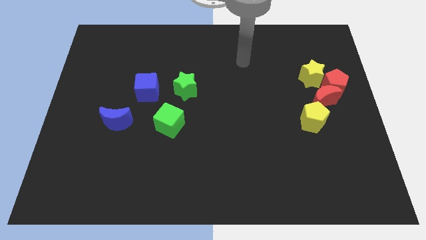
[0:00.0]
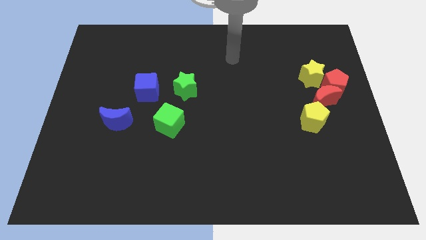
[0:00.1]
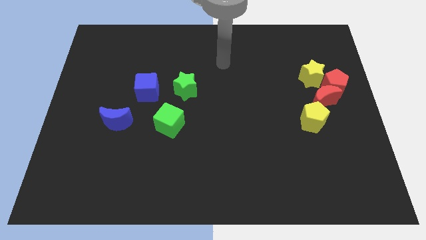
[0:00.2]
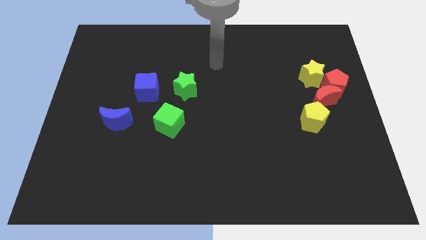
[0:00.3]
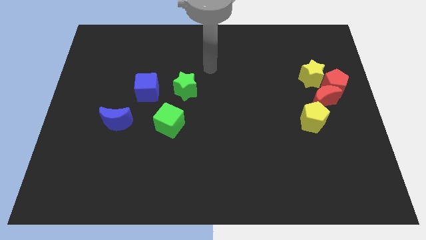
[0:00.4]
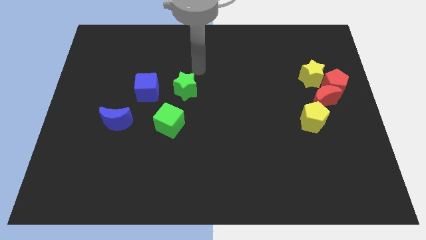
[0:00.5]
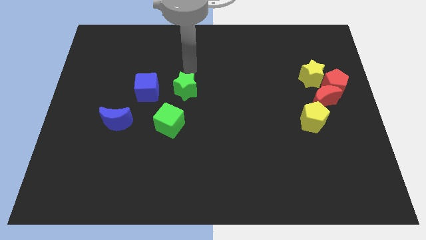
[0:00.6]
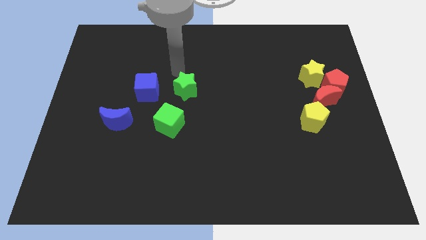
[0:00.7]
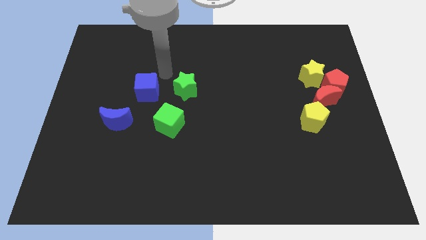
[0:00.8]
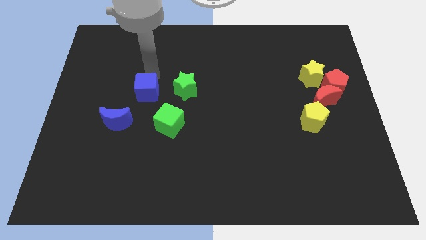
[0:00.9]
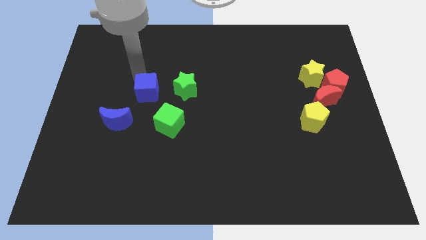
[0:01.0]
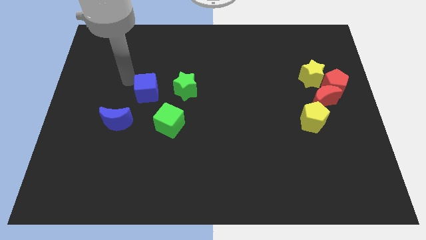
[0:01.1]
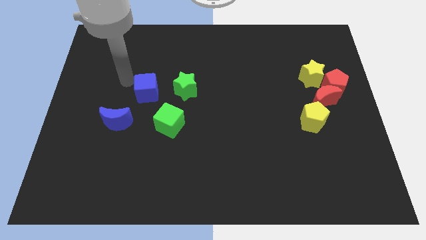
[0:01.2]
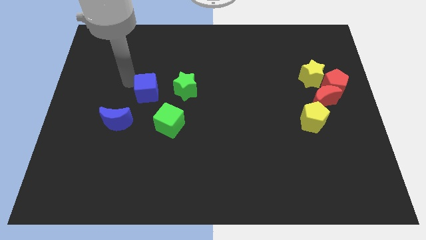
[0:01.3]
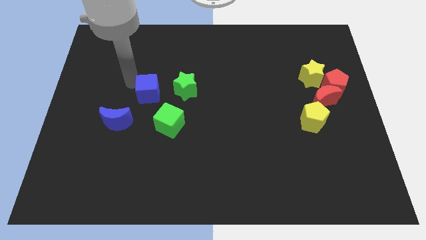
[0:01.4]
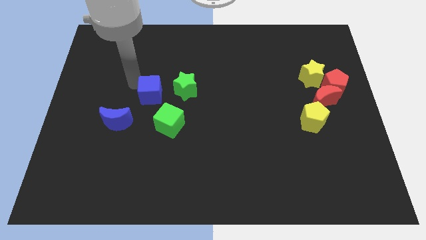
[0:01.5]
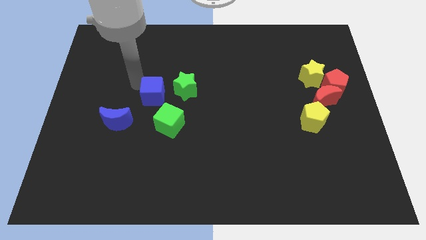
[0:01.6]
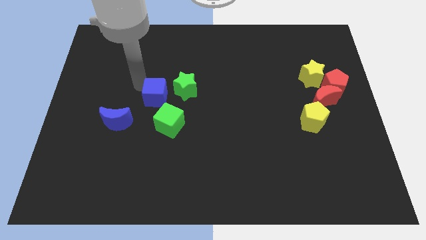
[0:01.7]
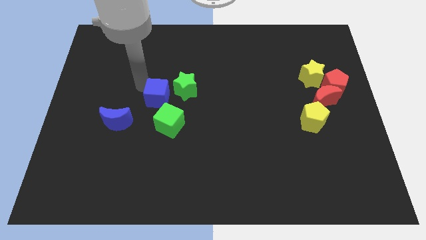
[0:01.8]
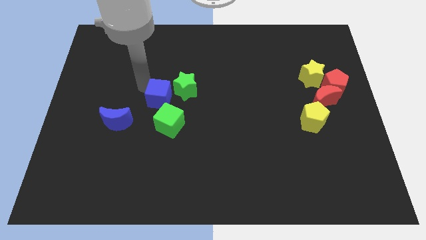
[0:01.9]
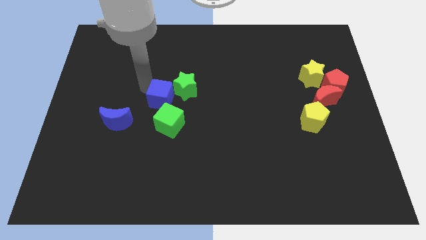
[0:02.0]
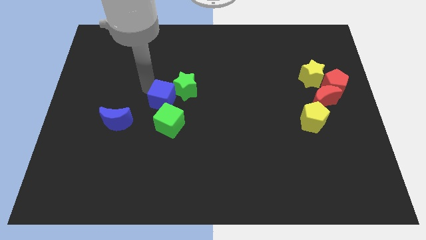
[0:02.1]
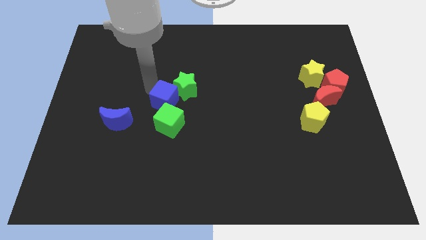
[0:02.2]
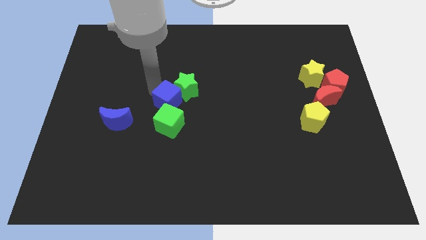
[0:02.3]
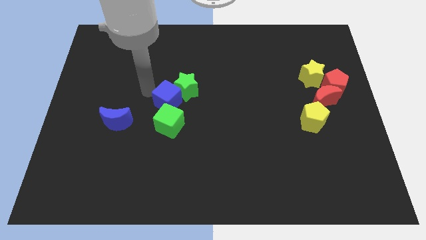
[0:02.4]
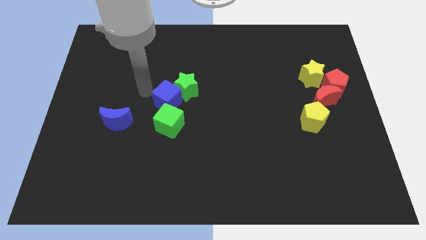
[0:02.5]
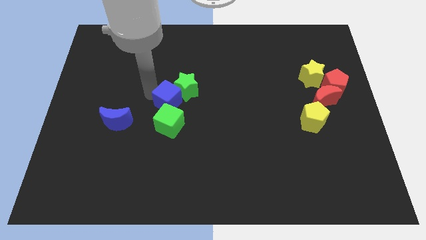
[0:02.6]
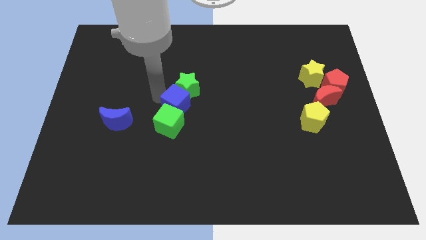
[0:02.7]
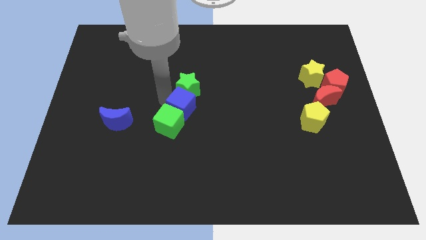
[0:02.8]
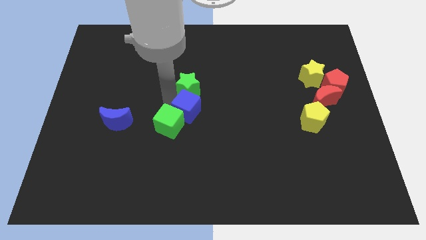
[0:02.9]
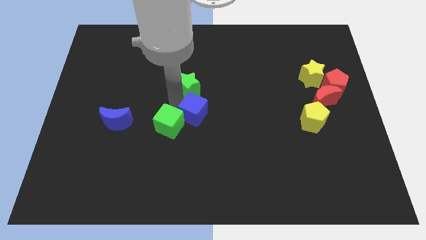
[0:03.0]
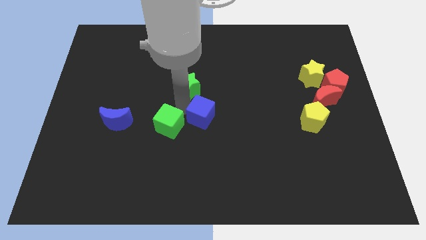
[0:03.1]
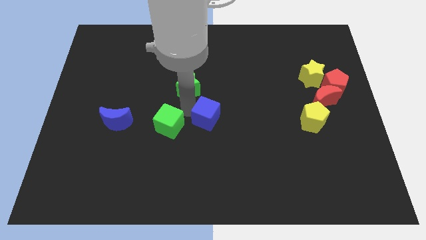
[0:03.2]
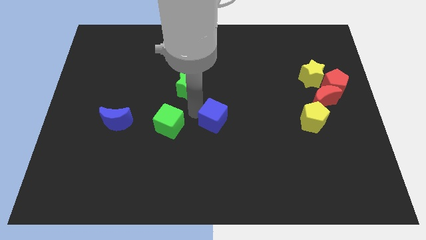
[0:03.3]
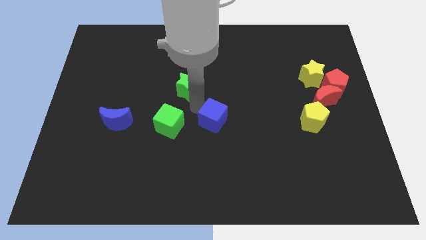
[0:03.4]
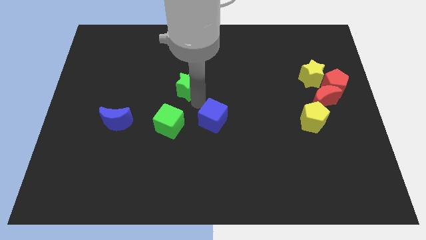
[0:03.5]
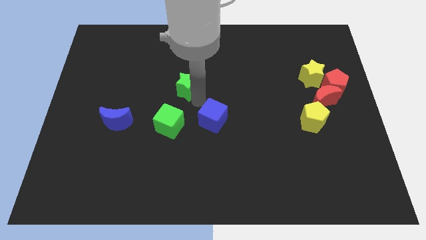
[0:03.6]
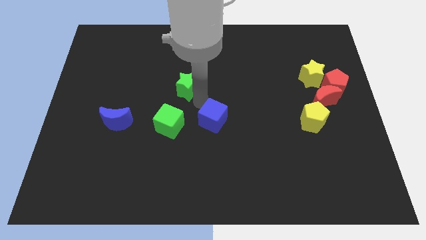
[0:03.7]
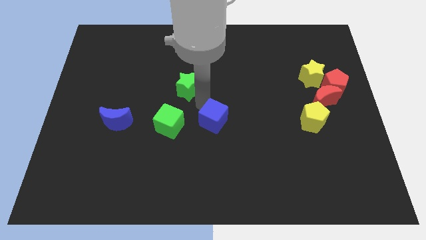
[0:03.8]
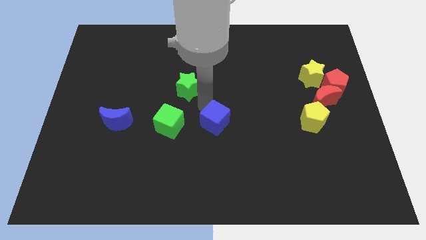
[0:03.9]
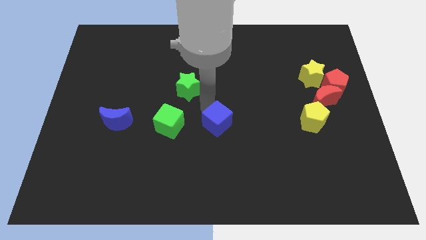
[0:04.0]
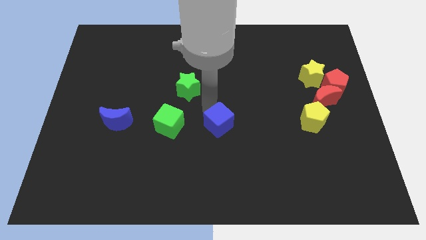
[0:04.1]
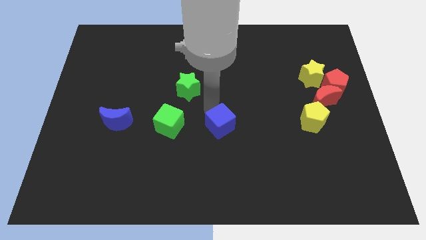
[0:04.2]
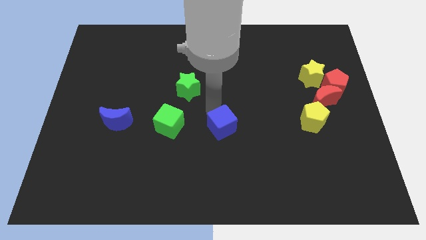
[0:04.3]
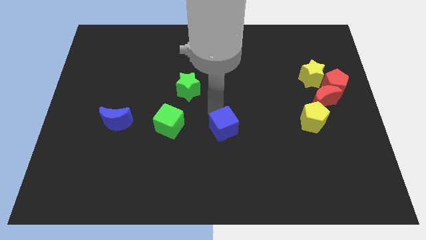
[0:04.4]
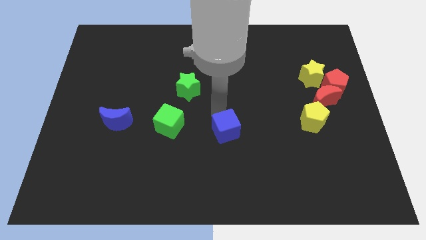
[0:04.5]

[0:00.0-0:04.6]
push the blue cube downwards and then right

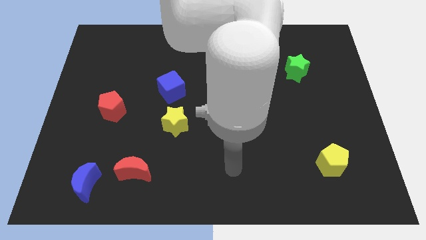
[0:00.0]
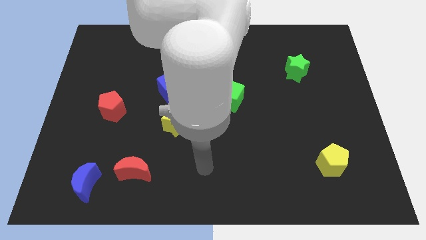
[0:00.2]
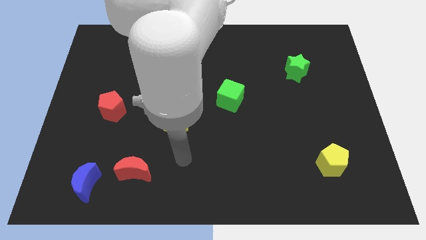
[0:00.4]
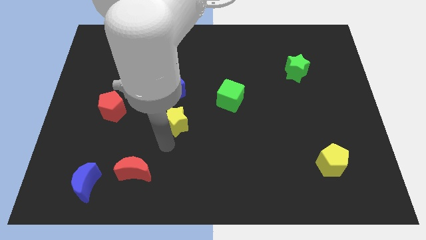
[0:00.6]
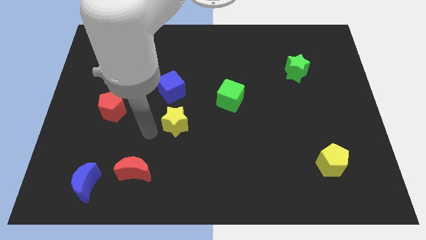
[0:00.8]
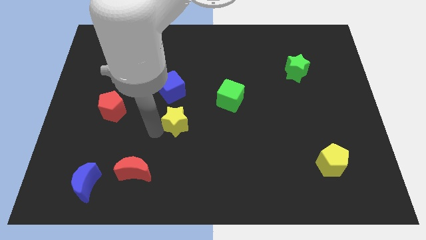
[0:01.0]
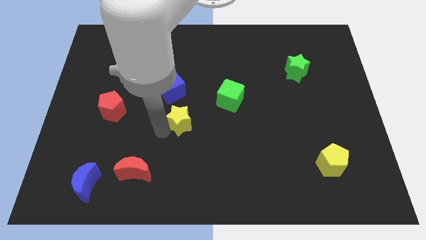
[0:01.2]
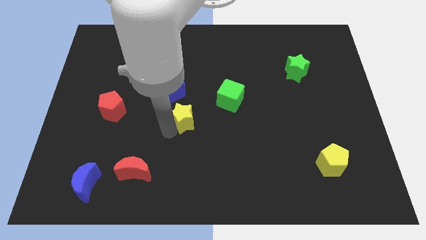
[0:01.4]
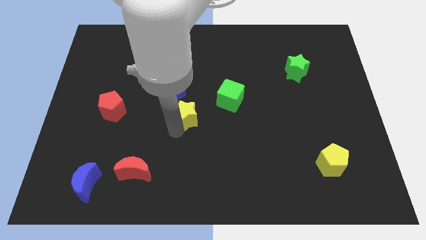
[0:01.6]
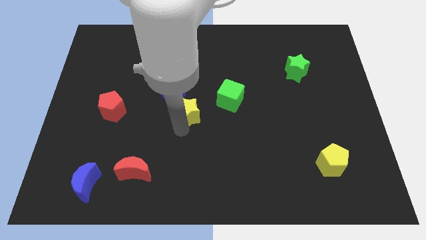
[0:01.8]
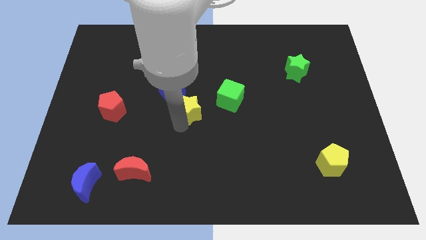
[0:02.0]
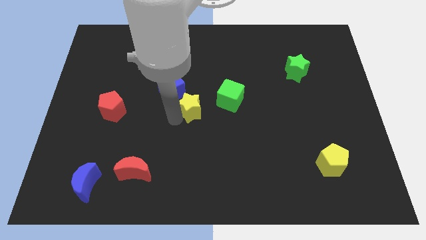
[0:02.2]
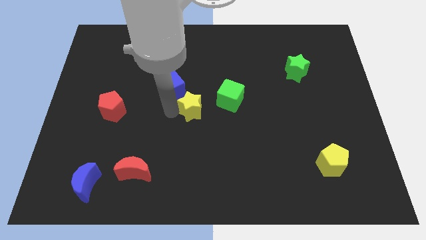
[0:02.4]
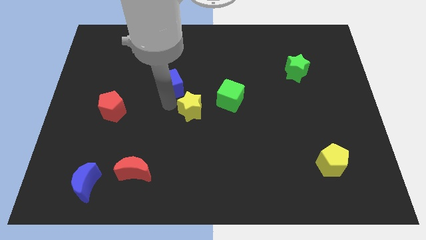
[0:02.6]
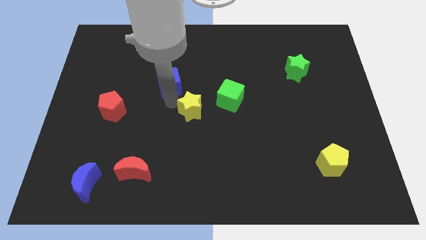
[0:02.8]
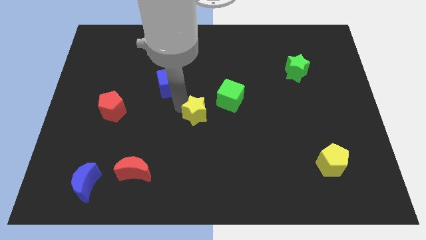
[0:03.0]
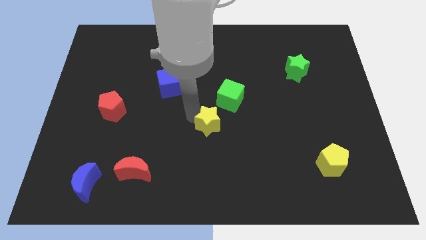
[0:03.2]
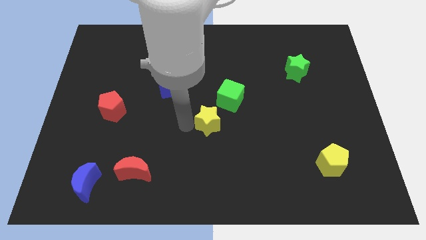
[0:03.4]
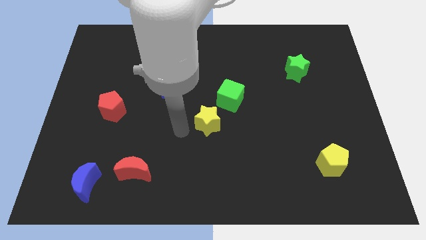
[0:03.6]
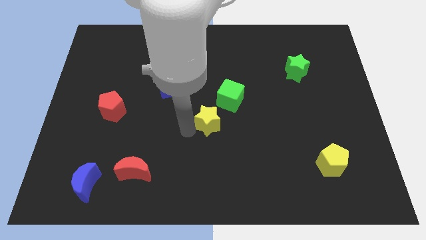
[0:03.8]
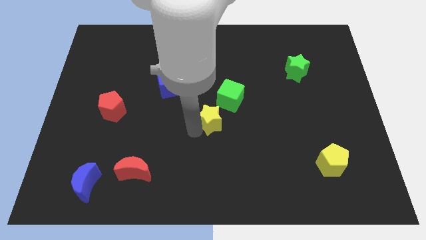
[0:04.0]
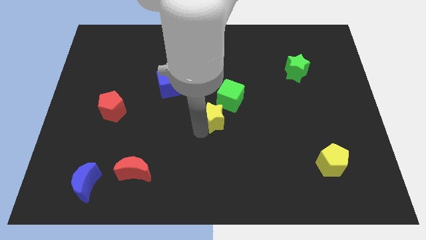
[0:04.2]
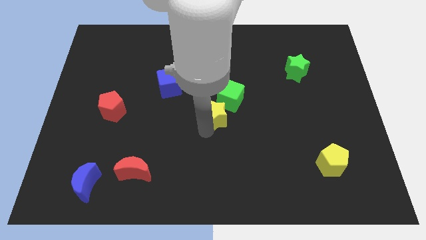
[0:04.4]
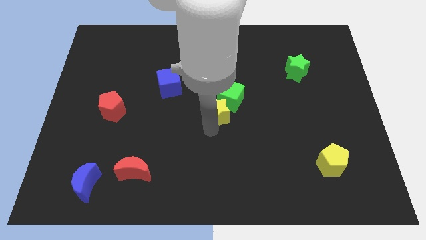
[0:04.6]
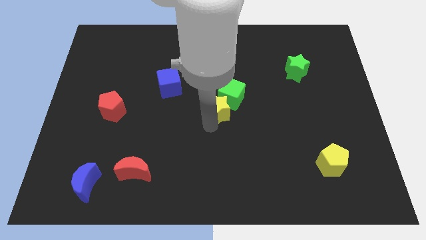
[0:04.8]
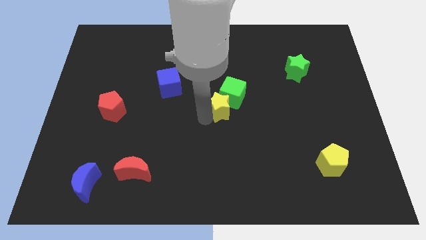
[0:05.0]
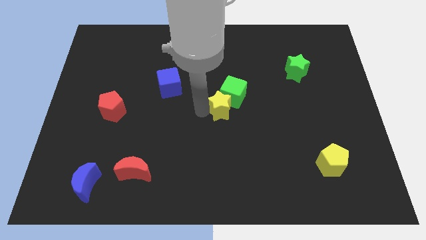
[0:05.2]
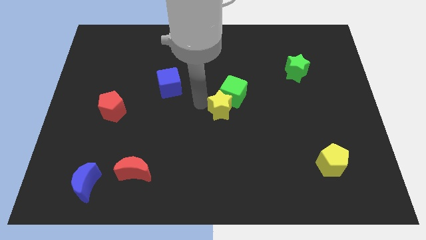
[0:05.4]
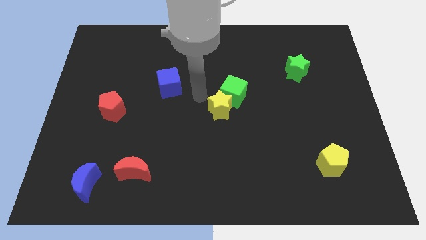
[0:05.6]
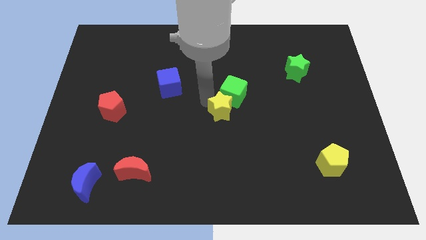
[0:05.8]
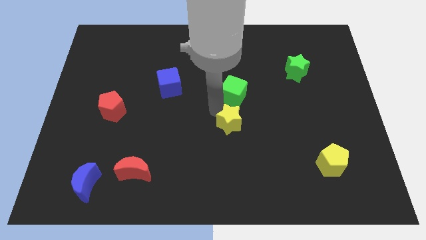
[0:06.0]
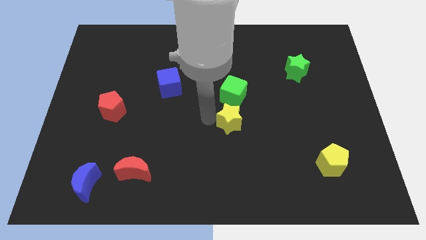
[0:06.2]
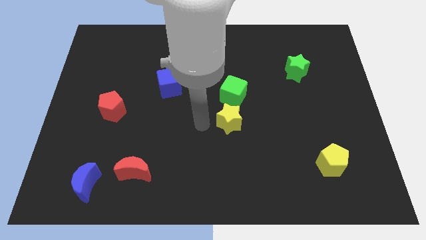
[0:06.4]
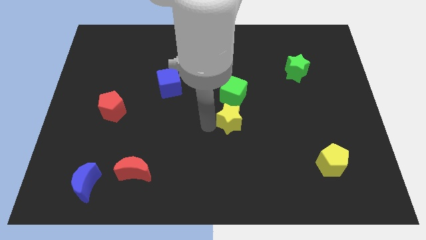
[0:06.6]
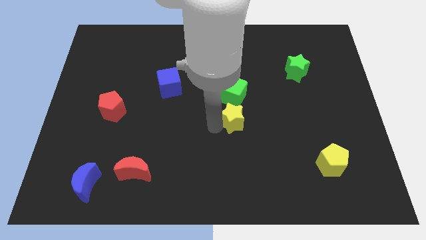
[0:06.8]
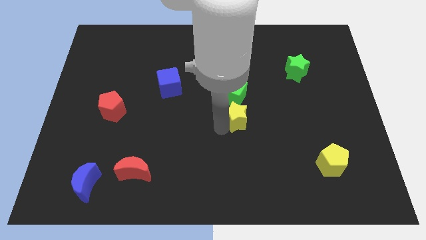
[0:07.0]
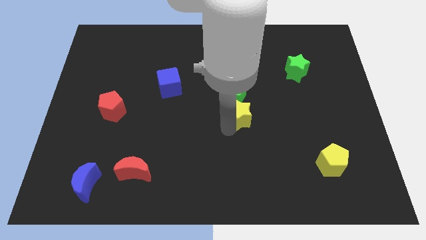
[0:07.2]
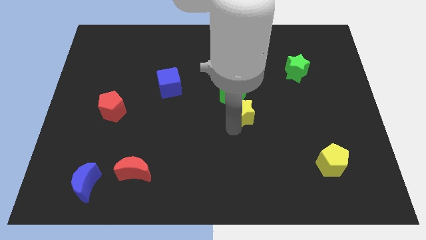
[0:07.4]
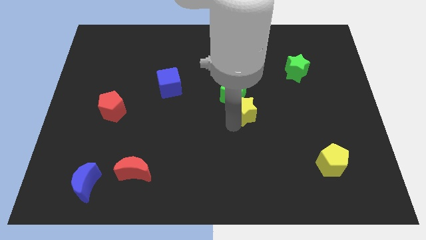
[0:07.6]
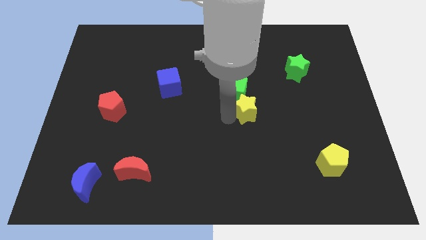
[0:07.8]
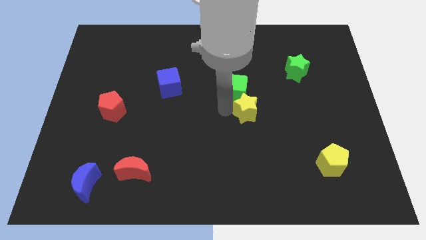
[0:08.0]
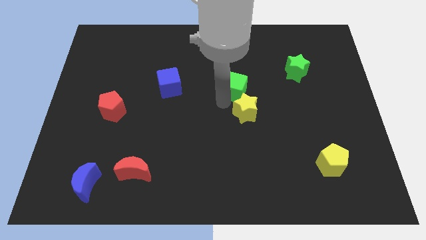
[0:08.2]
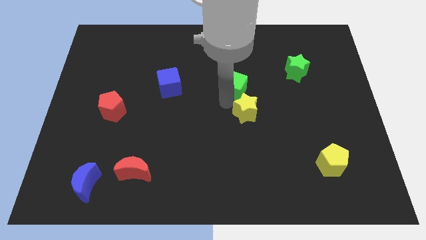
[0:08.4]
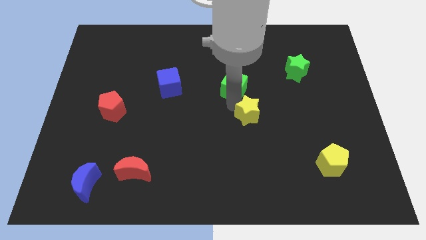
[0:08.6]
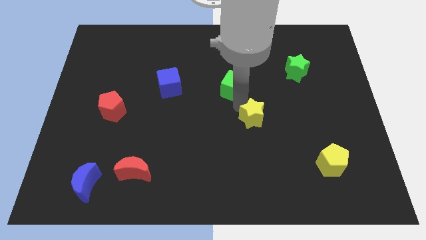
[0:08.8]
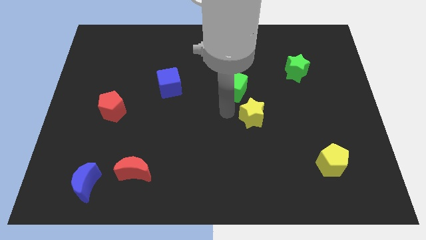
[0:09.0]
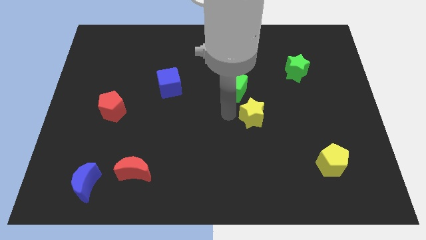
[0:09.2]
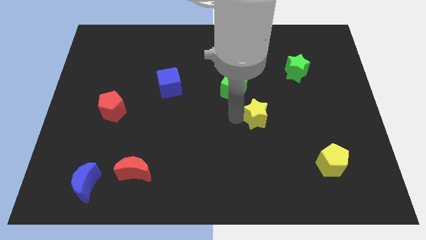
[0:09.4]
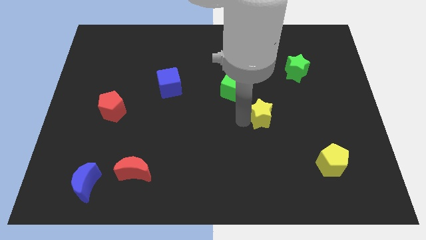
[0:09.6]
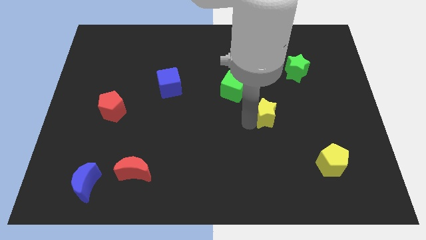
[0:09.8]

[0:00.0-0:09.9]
push the yellow star to the right
